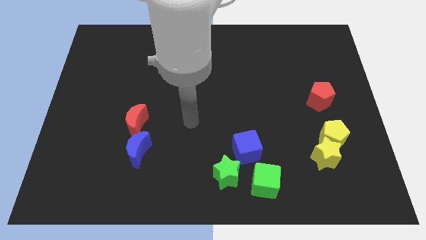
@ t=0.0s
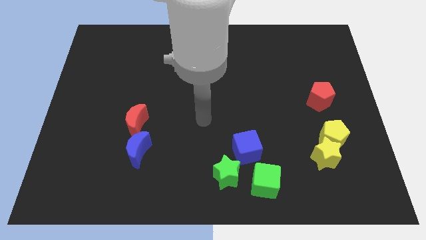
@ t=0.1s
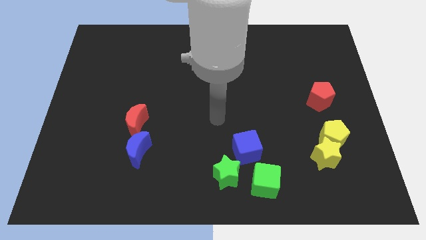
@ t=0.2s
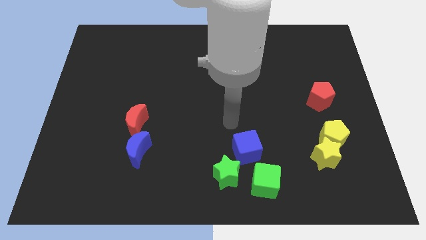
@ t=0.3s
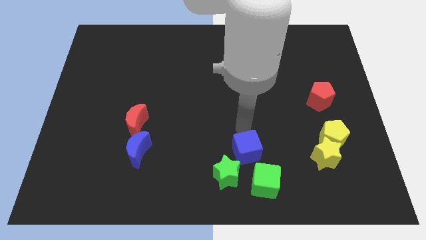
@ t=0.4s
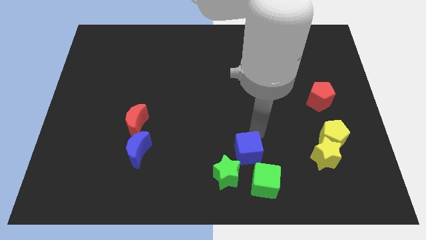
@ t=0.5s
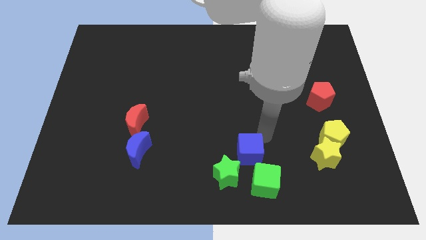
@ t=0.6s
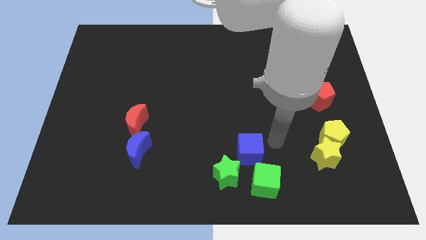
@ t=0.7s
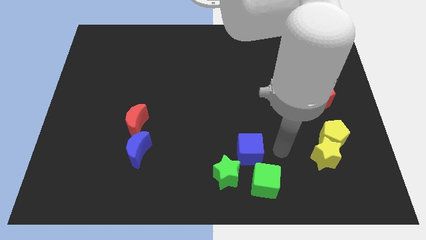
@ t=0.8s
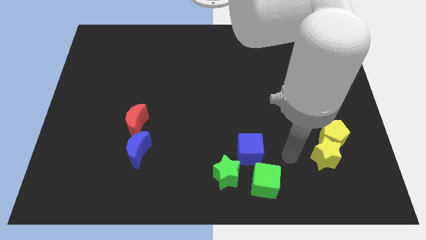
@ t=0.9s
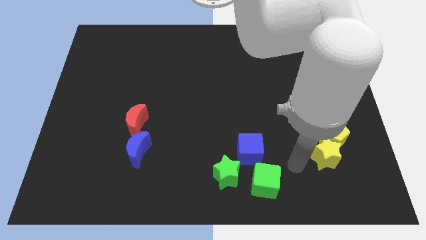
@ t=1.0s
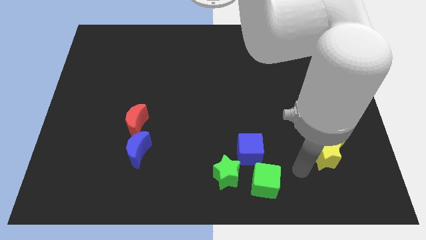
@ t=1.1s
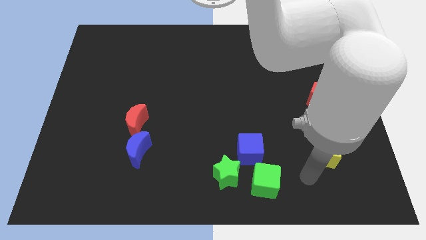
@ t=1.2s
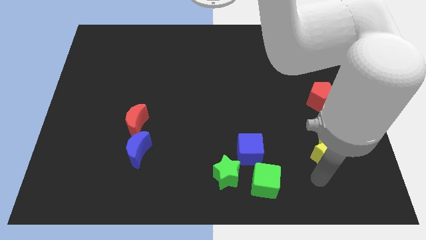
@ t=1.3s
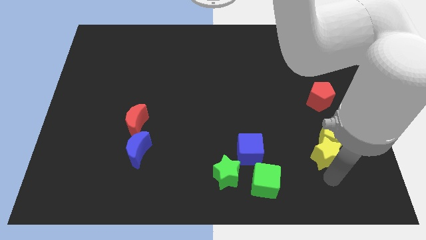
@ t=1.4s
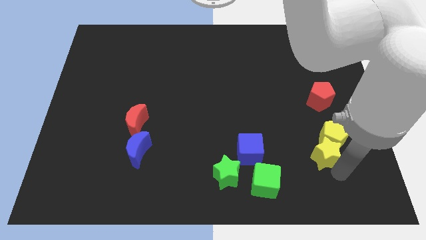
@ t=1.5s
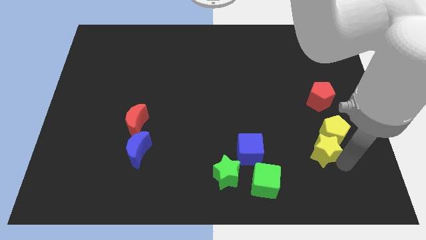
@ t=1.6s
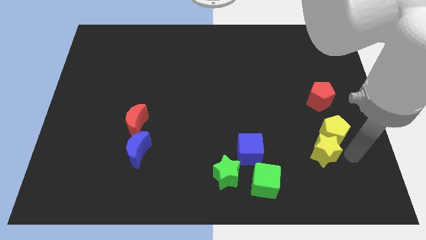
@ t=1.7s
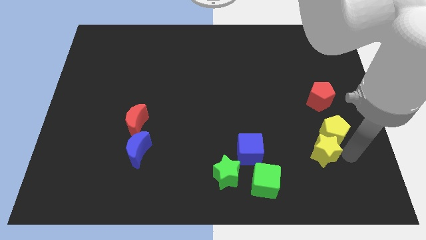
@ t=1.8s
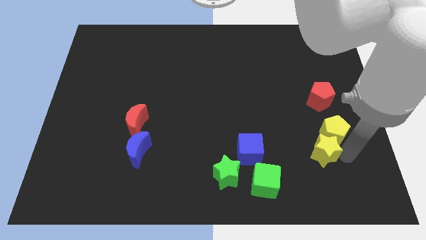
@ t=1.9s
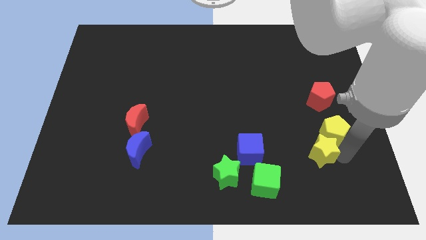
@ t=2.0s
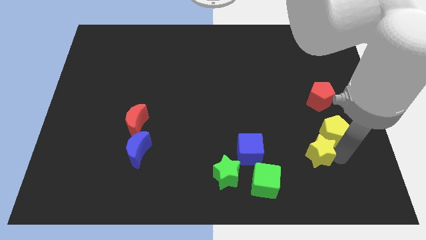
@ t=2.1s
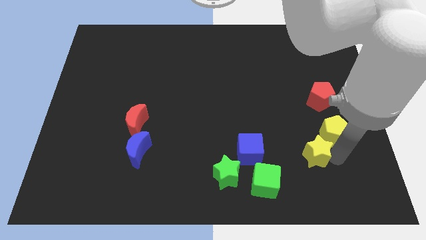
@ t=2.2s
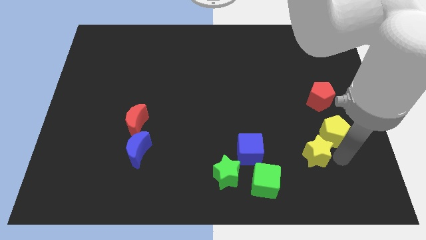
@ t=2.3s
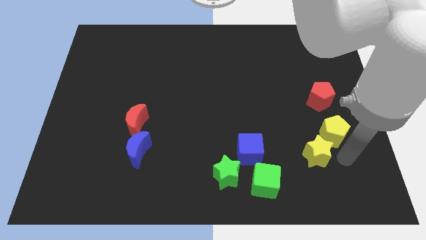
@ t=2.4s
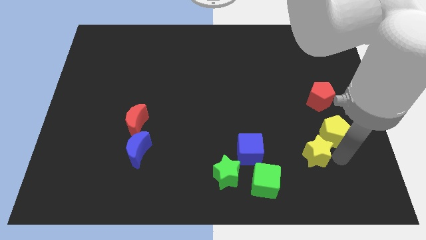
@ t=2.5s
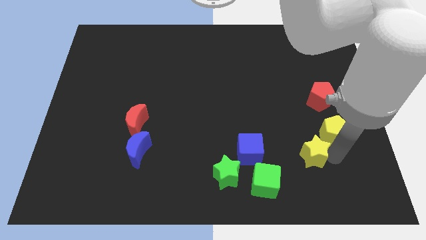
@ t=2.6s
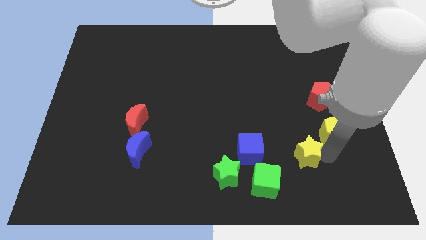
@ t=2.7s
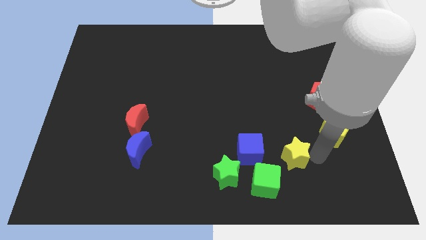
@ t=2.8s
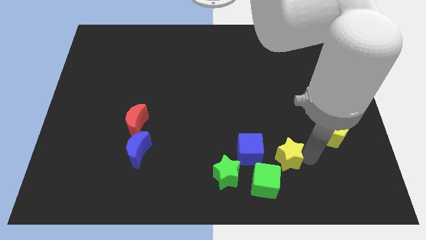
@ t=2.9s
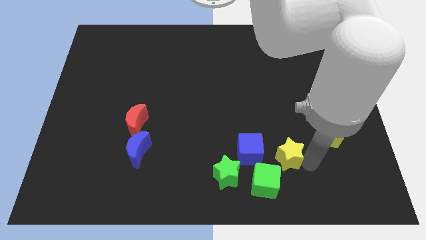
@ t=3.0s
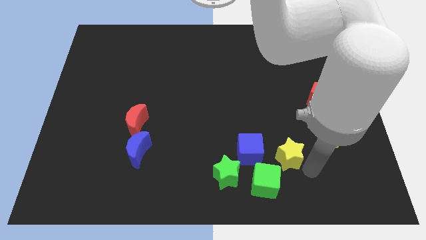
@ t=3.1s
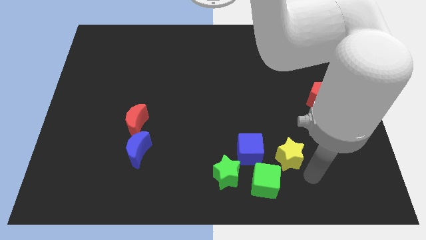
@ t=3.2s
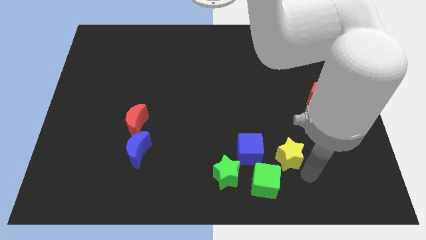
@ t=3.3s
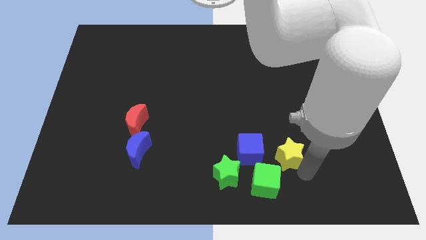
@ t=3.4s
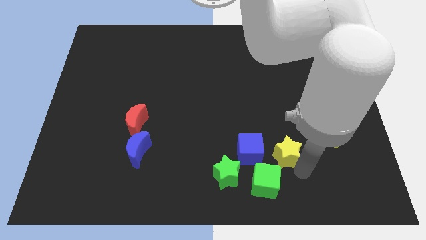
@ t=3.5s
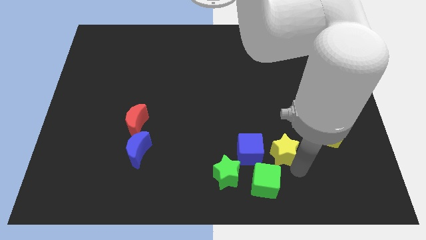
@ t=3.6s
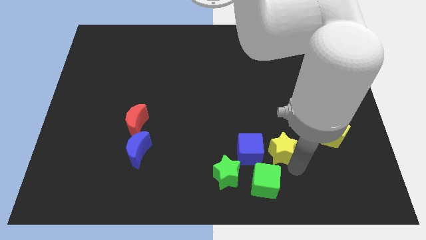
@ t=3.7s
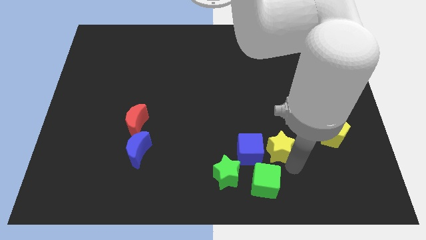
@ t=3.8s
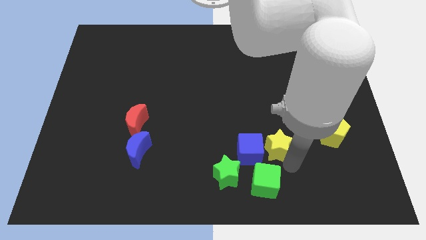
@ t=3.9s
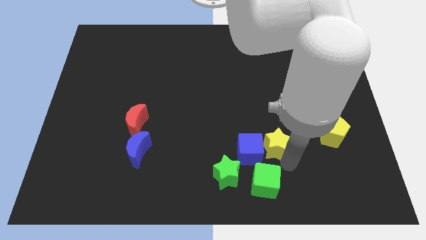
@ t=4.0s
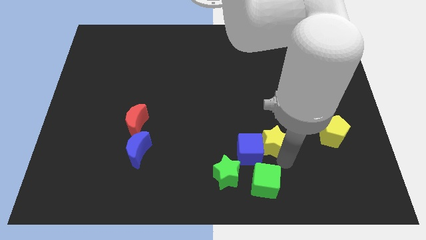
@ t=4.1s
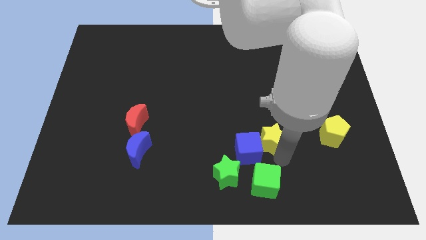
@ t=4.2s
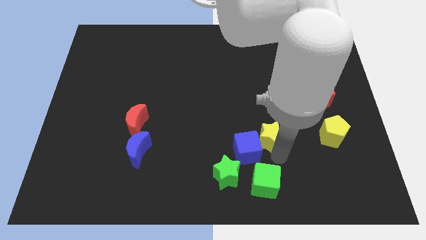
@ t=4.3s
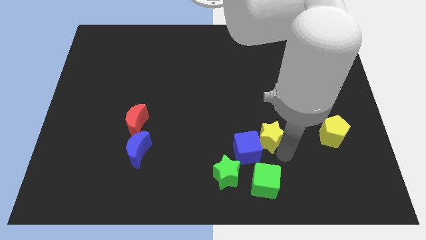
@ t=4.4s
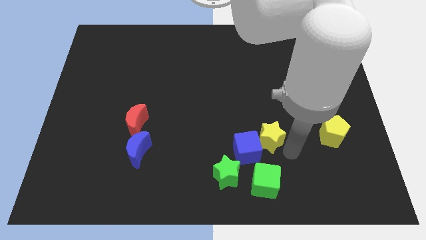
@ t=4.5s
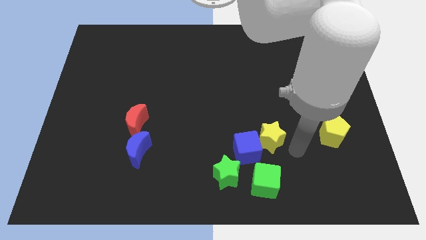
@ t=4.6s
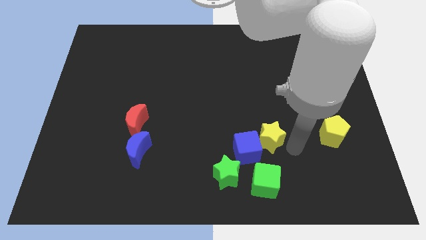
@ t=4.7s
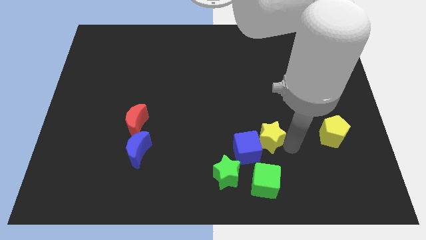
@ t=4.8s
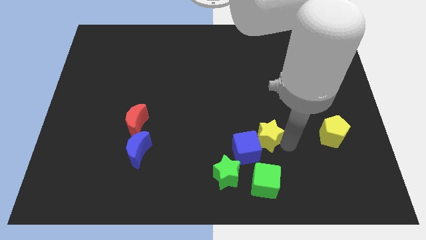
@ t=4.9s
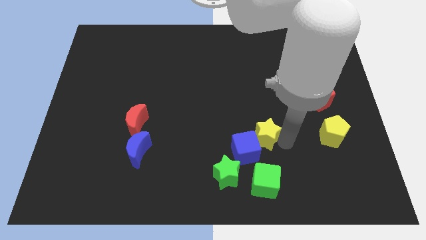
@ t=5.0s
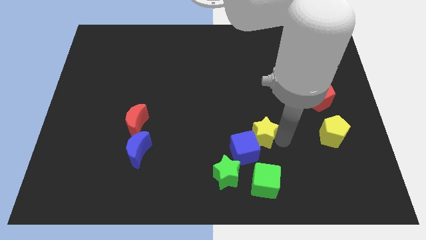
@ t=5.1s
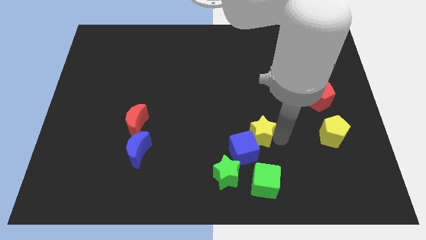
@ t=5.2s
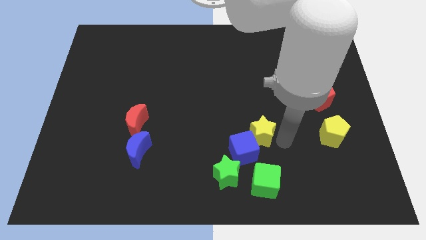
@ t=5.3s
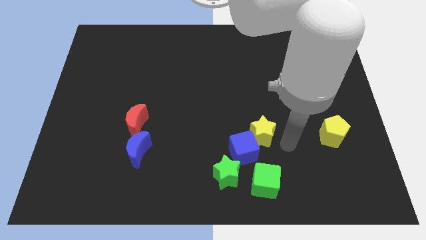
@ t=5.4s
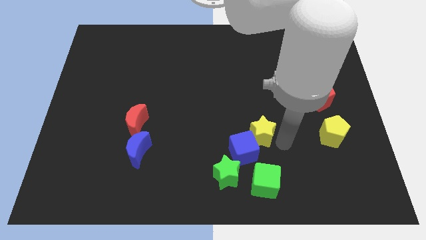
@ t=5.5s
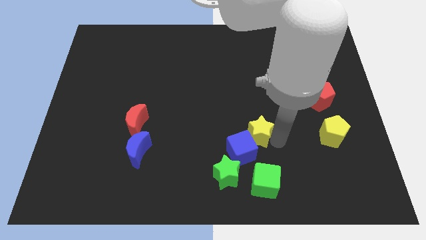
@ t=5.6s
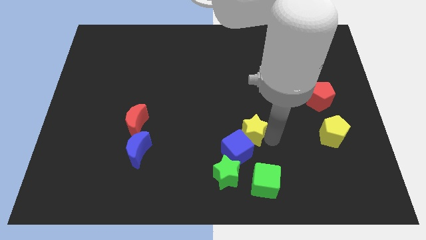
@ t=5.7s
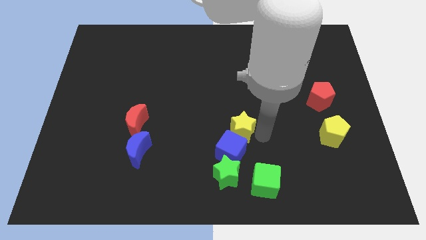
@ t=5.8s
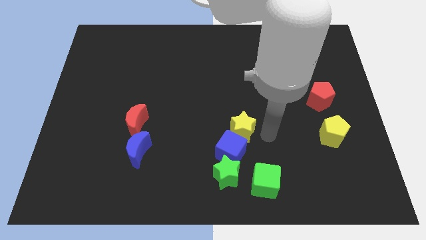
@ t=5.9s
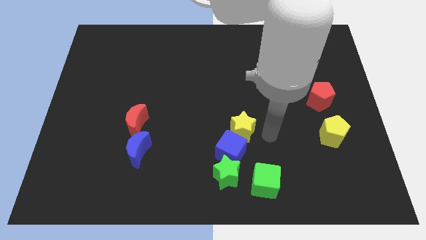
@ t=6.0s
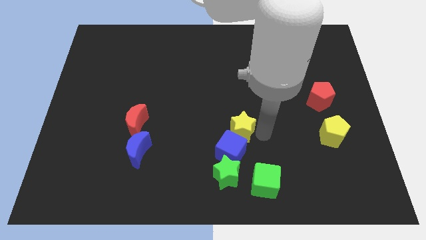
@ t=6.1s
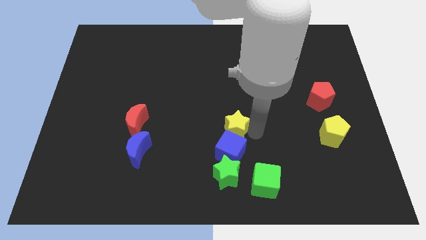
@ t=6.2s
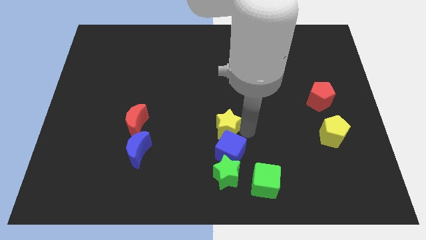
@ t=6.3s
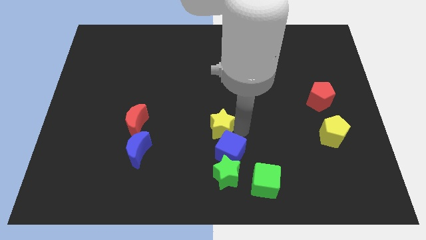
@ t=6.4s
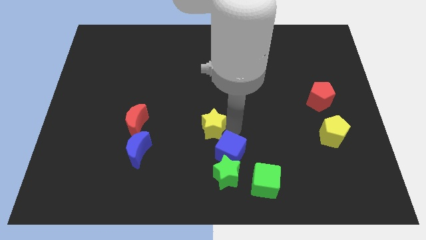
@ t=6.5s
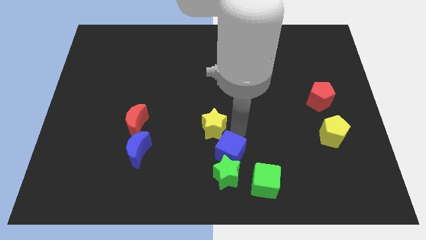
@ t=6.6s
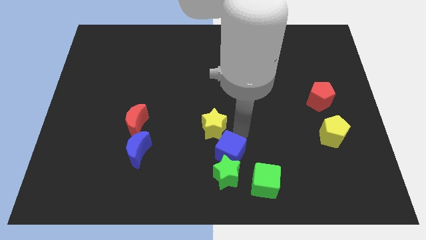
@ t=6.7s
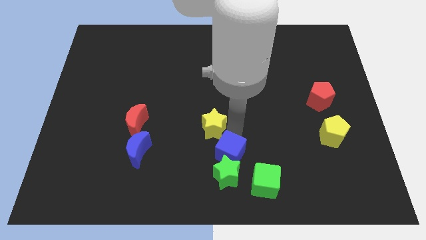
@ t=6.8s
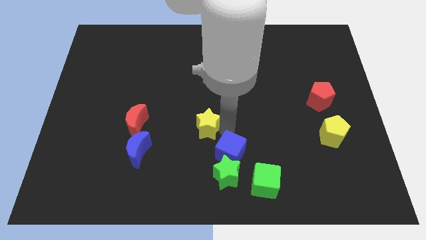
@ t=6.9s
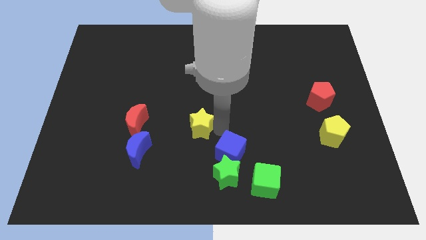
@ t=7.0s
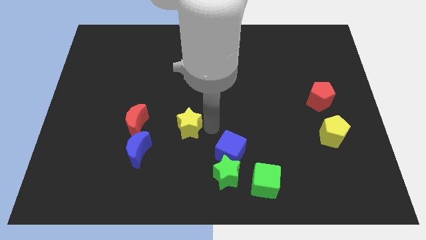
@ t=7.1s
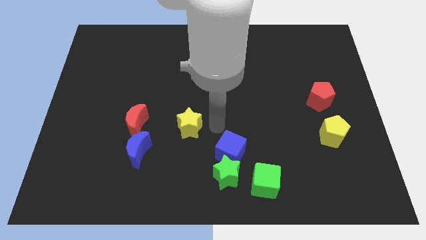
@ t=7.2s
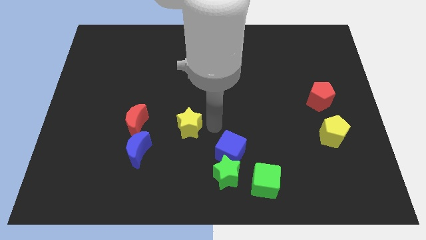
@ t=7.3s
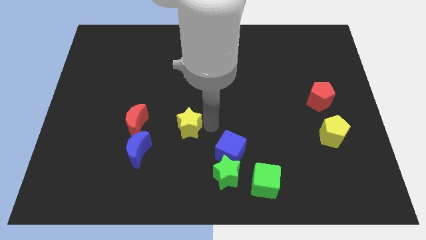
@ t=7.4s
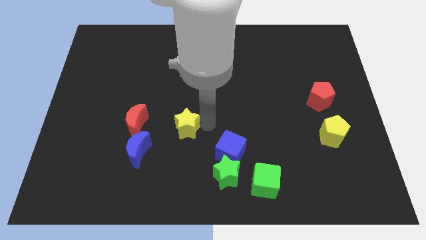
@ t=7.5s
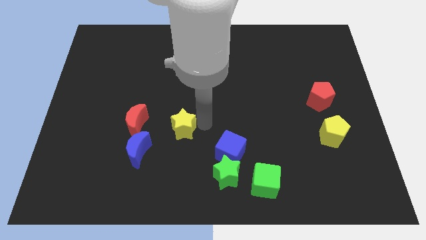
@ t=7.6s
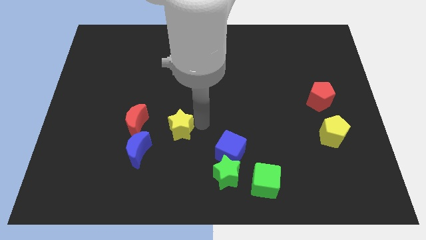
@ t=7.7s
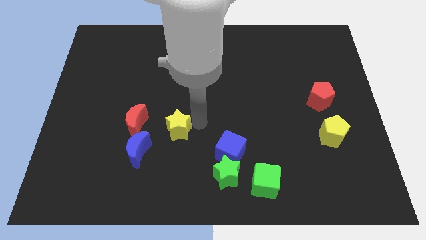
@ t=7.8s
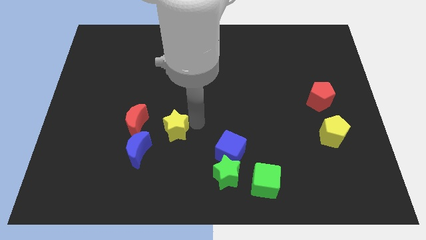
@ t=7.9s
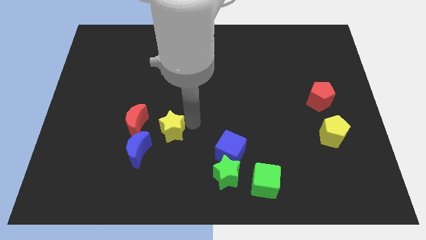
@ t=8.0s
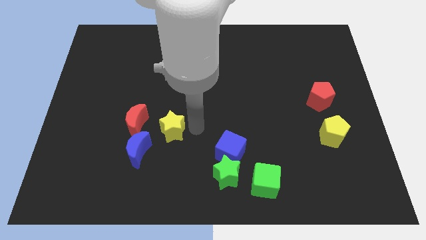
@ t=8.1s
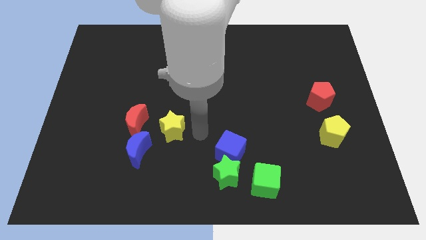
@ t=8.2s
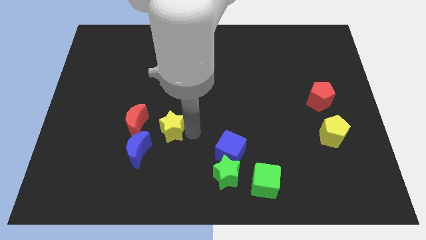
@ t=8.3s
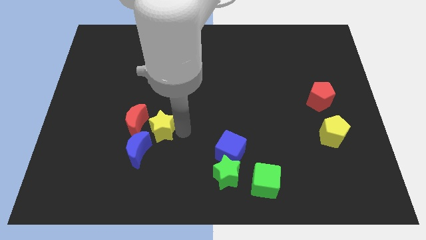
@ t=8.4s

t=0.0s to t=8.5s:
move the yellow star next to the red moon
